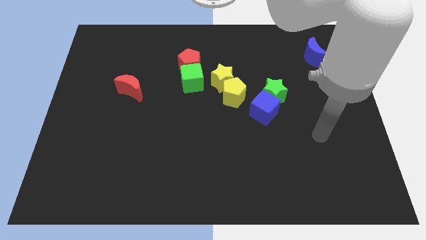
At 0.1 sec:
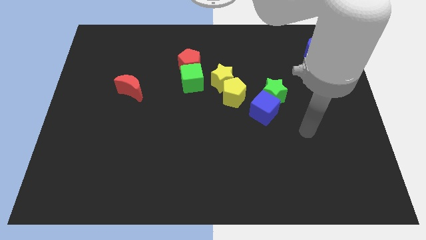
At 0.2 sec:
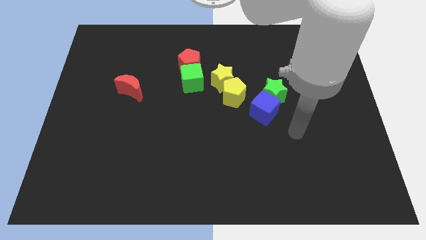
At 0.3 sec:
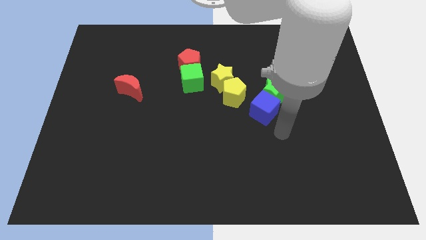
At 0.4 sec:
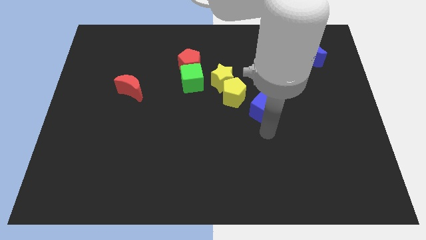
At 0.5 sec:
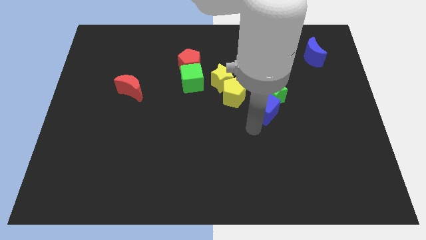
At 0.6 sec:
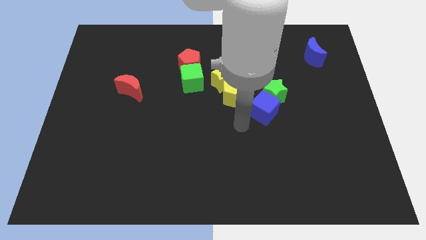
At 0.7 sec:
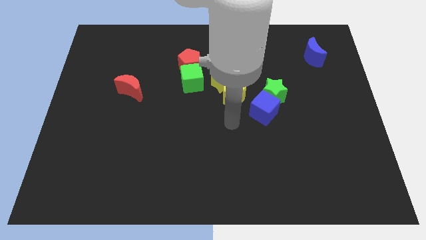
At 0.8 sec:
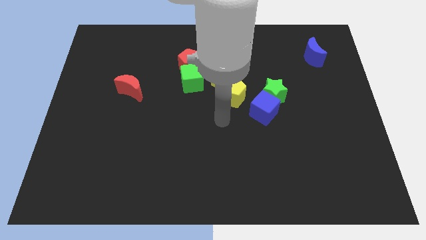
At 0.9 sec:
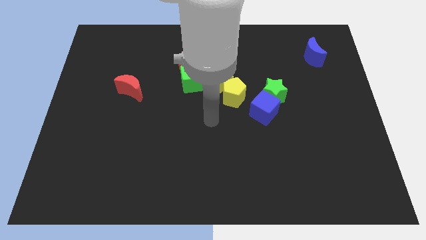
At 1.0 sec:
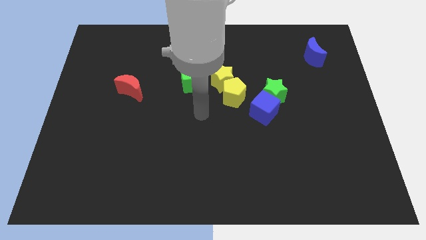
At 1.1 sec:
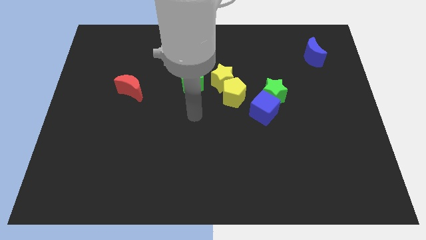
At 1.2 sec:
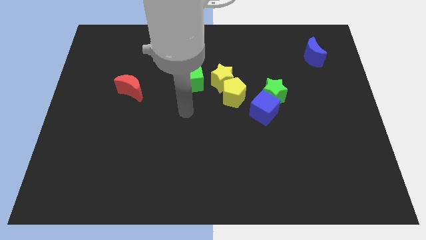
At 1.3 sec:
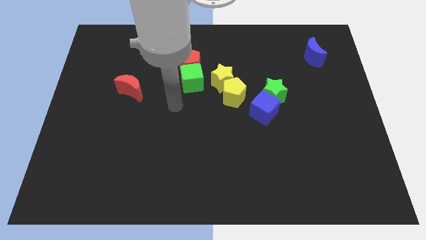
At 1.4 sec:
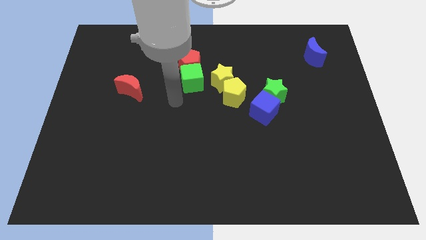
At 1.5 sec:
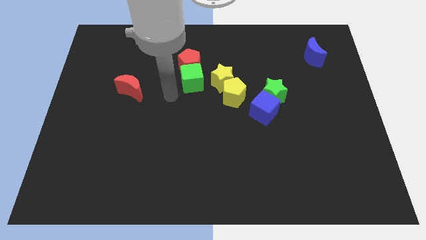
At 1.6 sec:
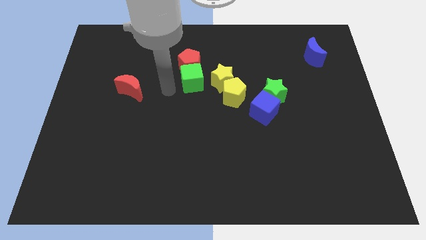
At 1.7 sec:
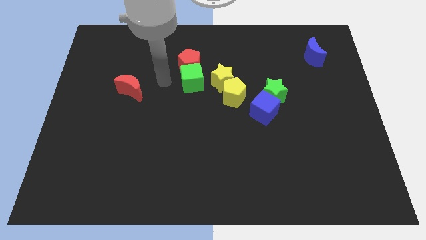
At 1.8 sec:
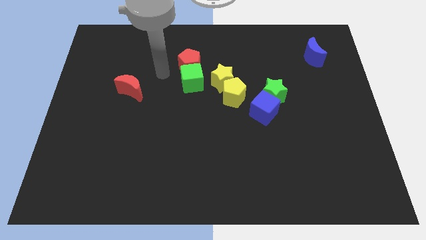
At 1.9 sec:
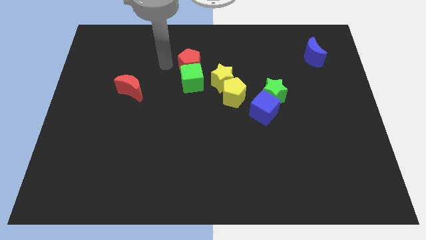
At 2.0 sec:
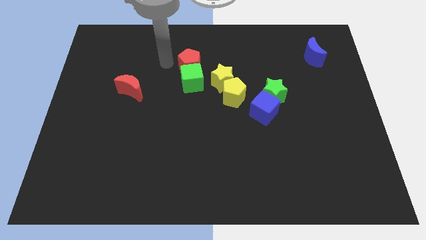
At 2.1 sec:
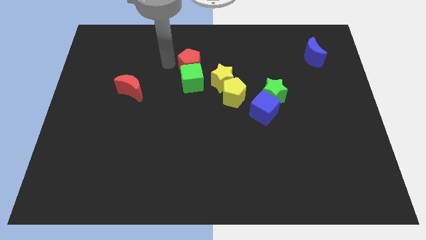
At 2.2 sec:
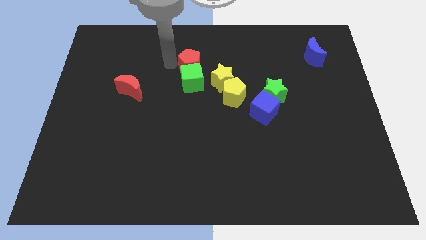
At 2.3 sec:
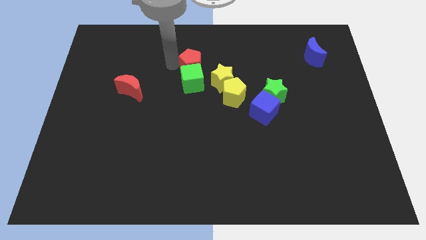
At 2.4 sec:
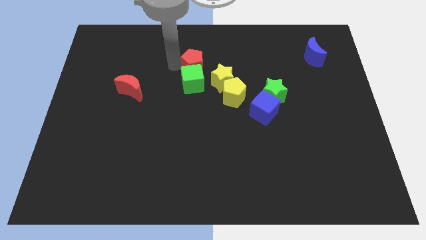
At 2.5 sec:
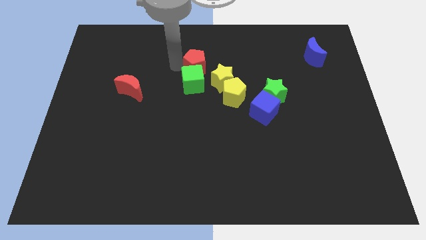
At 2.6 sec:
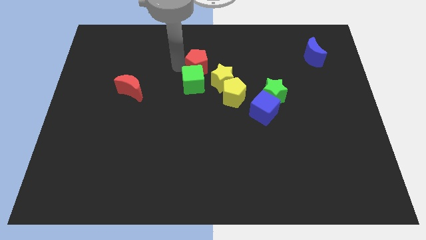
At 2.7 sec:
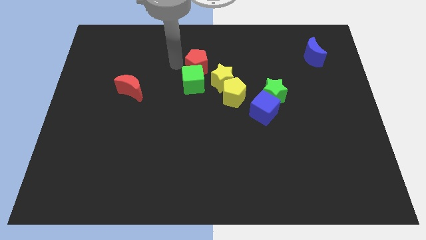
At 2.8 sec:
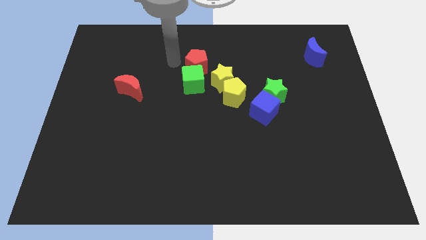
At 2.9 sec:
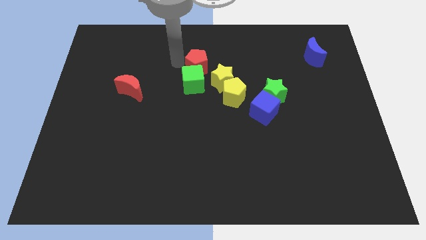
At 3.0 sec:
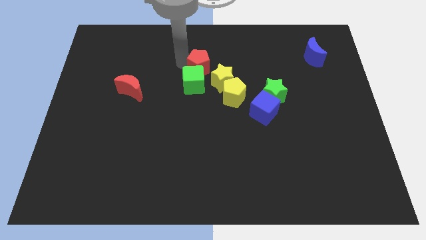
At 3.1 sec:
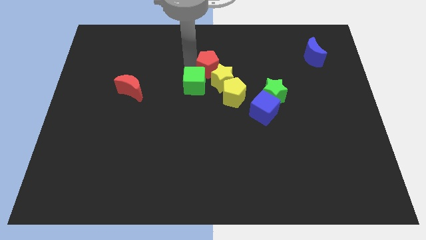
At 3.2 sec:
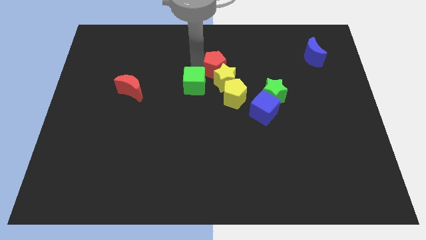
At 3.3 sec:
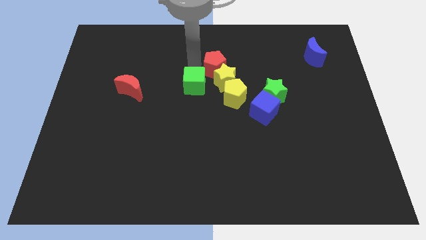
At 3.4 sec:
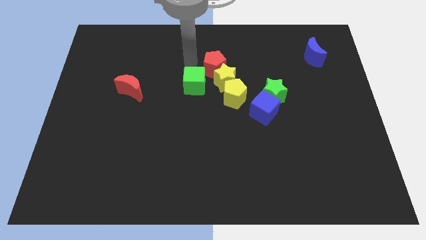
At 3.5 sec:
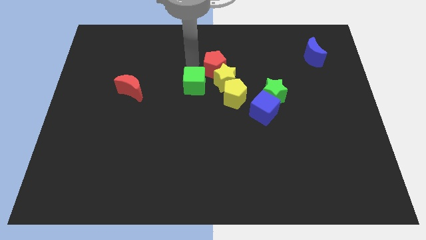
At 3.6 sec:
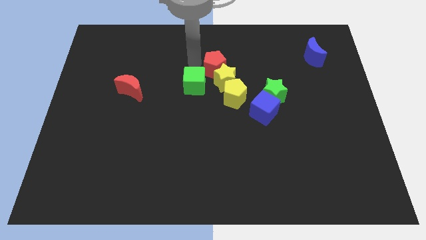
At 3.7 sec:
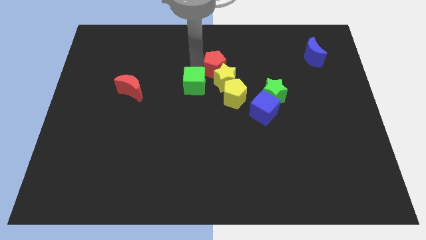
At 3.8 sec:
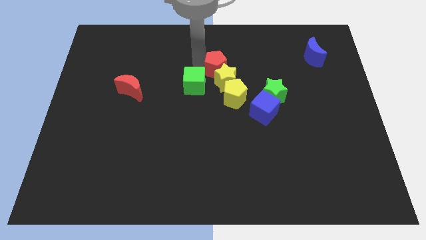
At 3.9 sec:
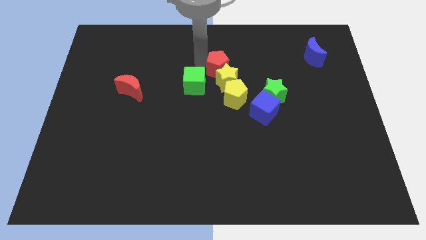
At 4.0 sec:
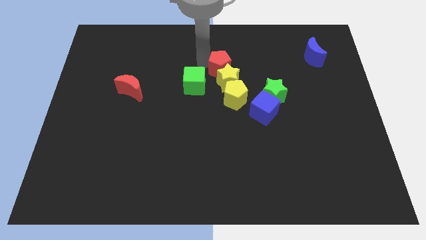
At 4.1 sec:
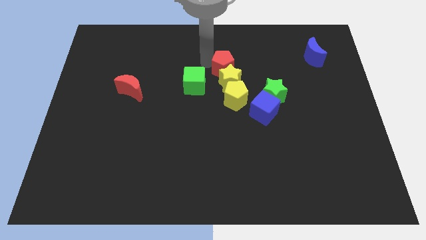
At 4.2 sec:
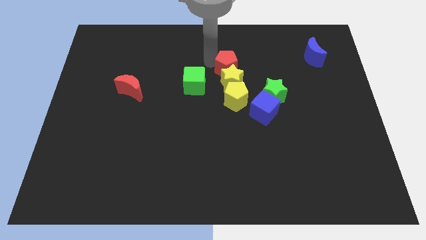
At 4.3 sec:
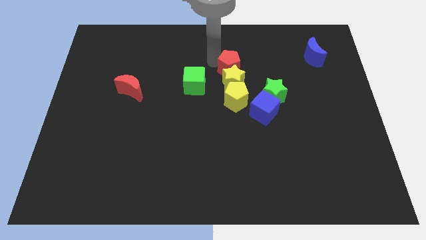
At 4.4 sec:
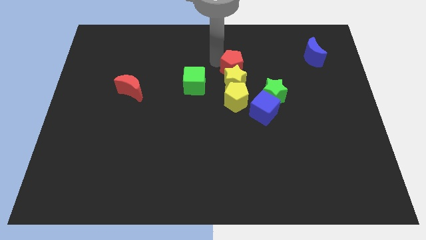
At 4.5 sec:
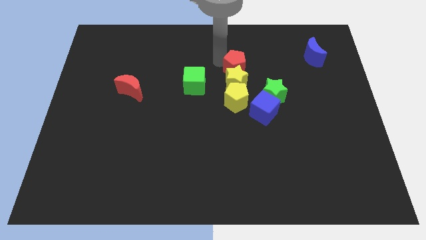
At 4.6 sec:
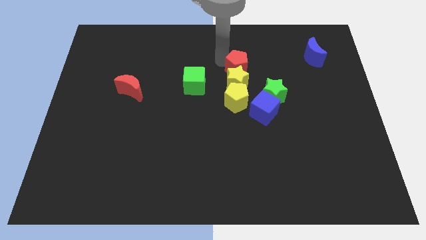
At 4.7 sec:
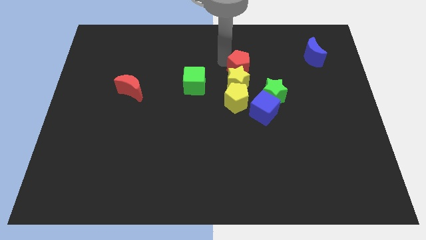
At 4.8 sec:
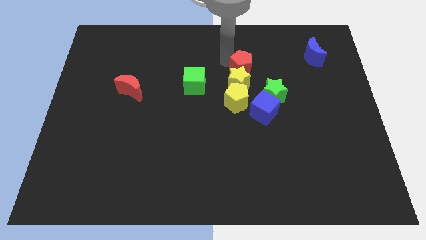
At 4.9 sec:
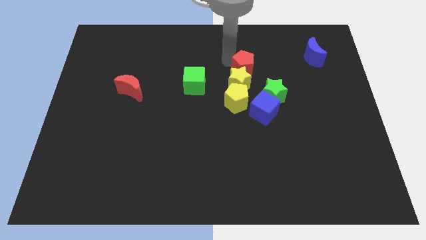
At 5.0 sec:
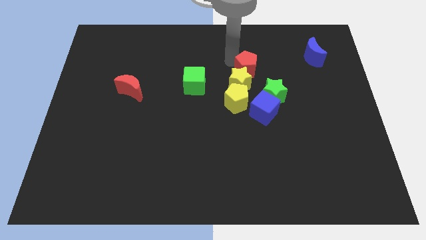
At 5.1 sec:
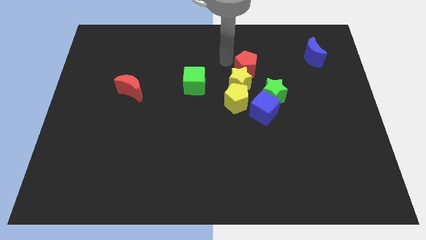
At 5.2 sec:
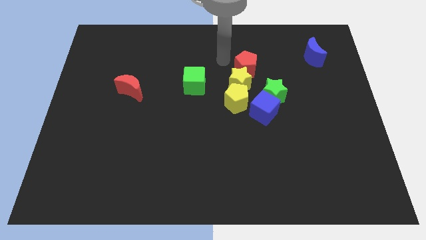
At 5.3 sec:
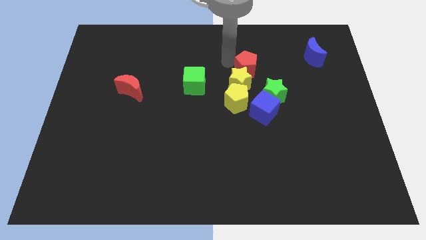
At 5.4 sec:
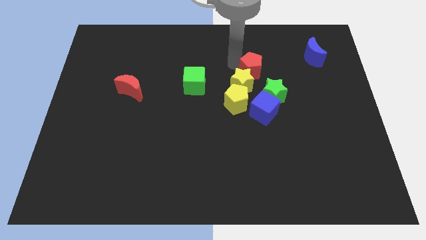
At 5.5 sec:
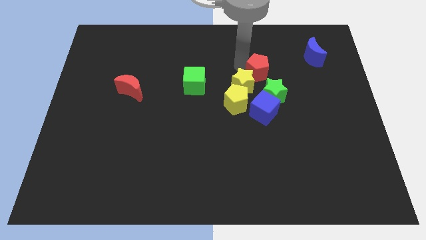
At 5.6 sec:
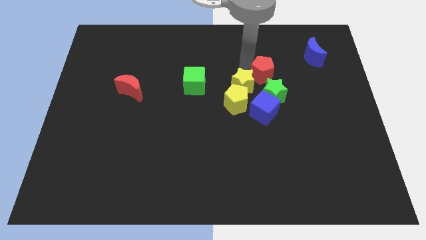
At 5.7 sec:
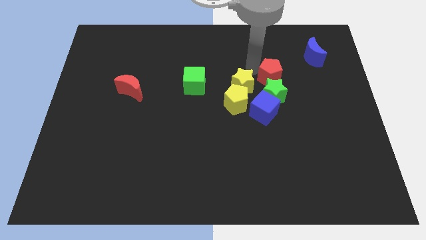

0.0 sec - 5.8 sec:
move the red pentagon diagonally up and to the right of the green star

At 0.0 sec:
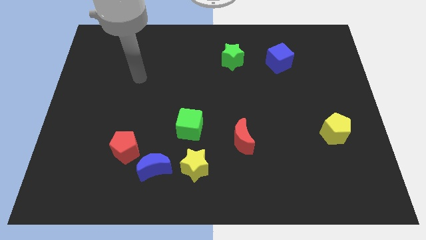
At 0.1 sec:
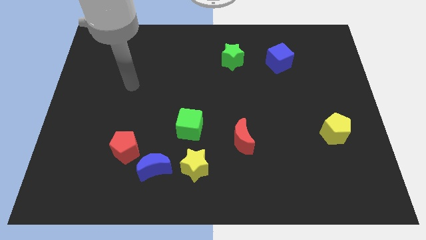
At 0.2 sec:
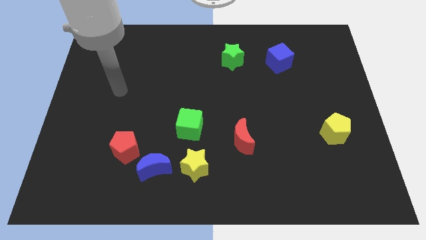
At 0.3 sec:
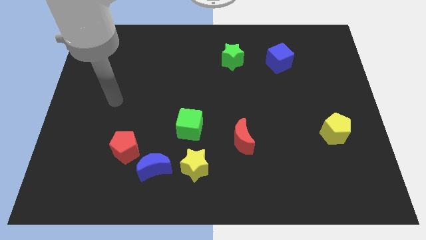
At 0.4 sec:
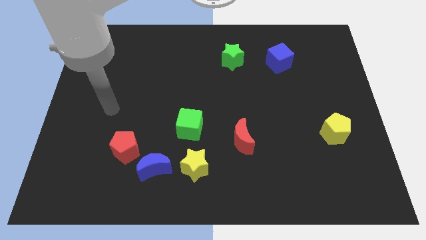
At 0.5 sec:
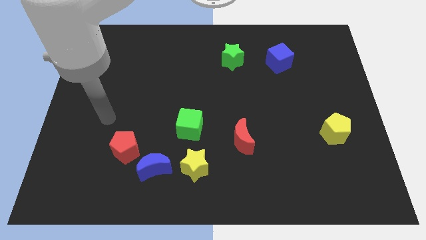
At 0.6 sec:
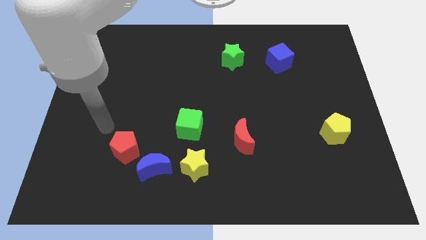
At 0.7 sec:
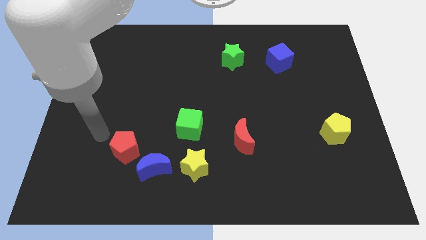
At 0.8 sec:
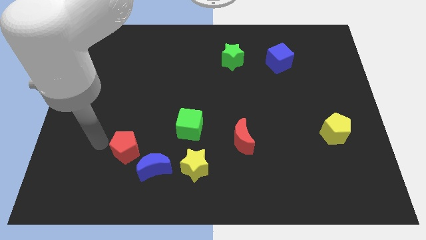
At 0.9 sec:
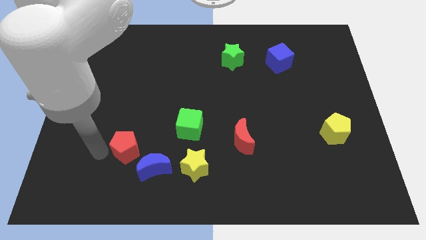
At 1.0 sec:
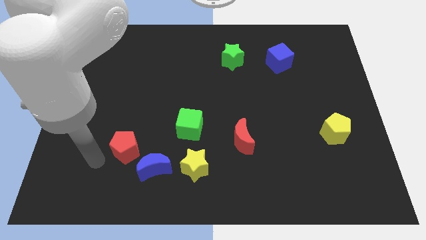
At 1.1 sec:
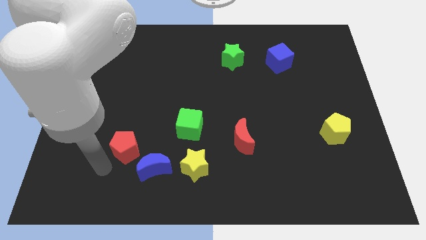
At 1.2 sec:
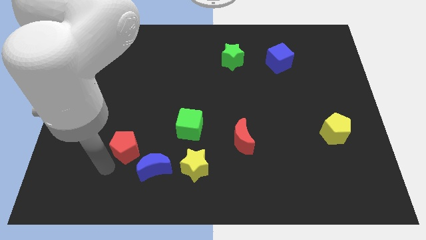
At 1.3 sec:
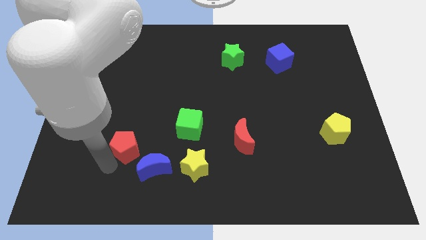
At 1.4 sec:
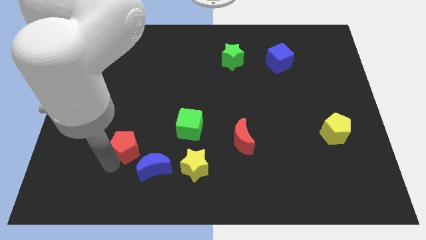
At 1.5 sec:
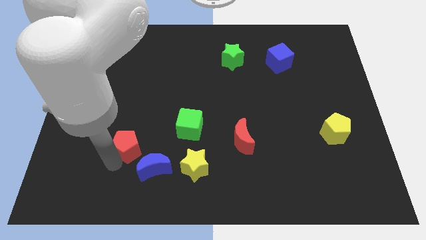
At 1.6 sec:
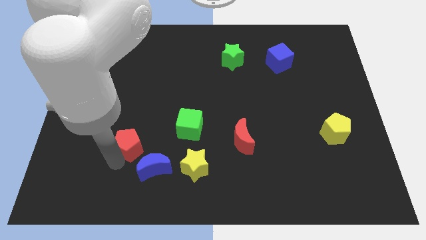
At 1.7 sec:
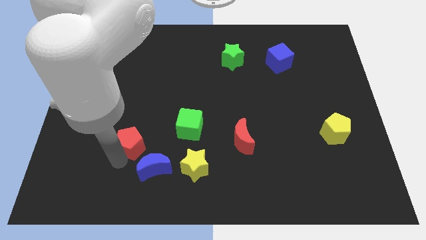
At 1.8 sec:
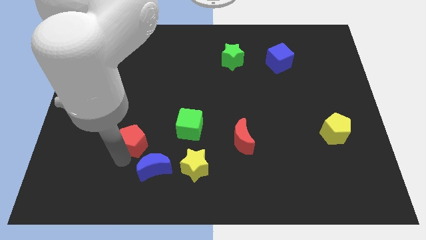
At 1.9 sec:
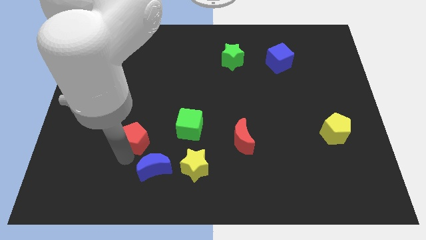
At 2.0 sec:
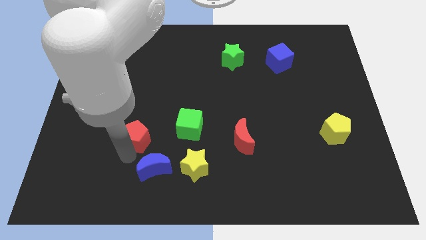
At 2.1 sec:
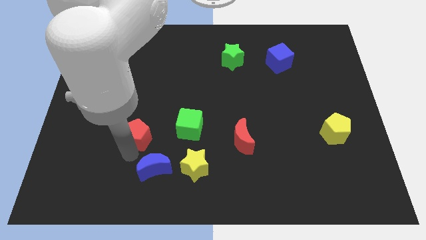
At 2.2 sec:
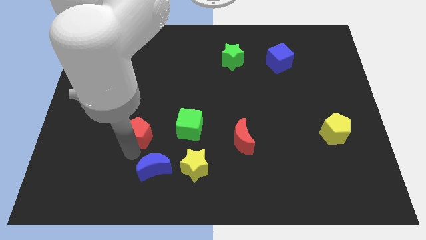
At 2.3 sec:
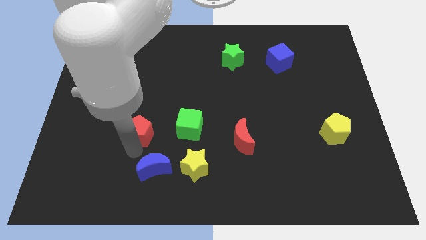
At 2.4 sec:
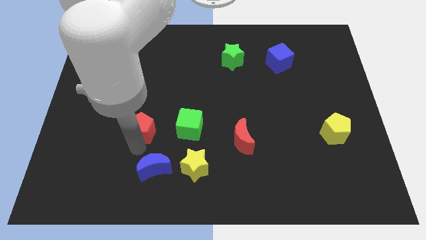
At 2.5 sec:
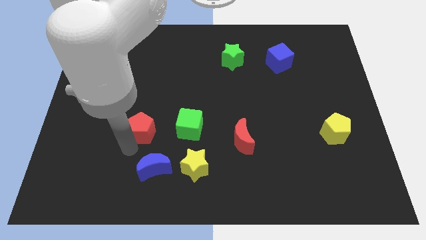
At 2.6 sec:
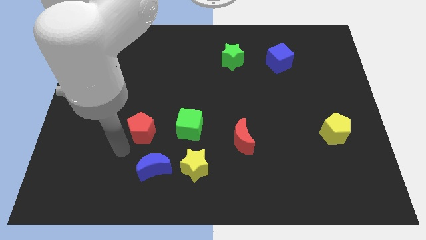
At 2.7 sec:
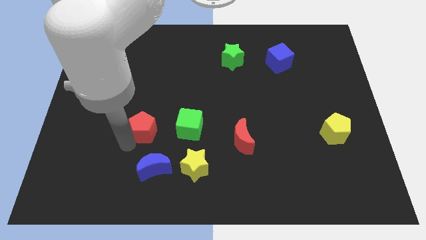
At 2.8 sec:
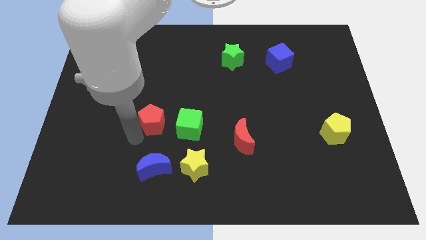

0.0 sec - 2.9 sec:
put the red pentagon to the top left side of the green cube
